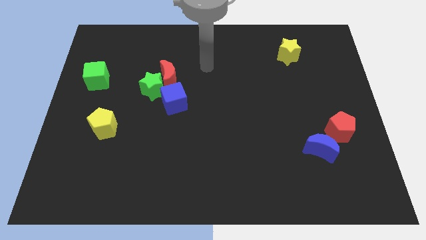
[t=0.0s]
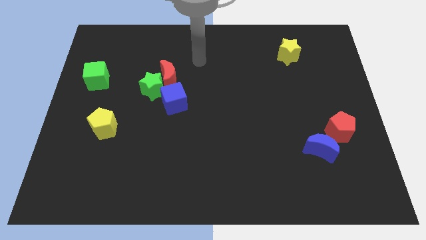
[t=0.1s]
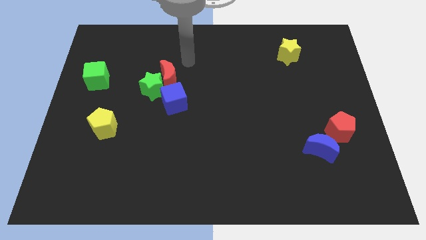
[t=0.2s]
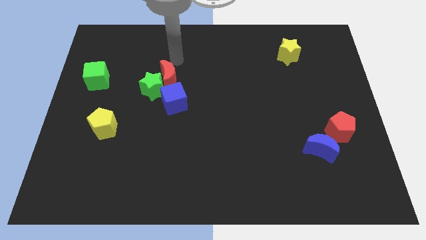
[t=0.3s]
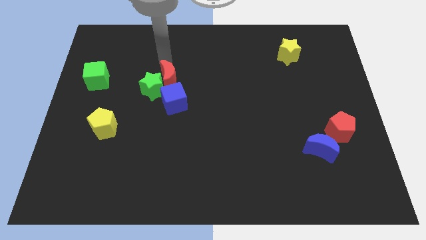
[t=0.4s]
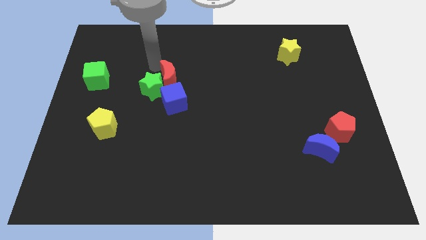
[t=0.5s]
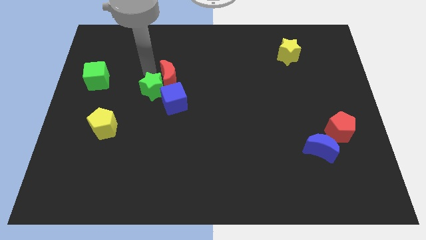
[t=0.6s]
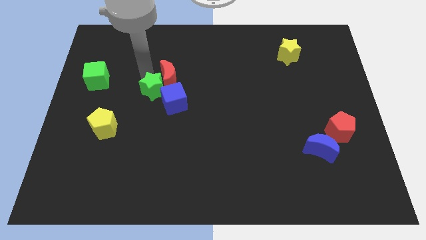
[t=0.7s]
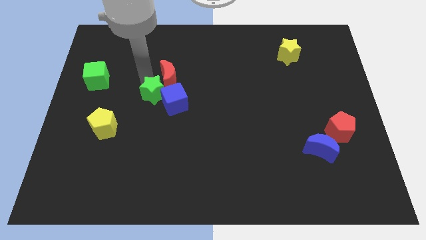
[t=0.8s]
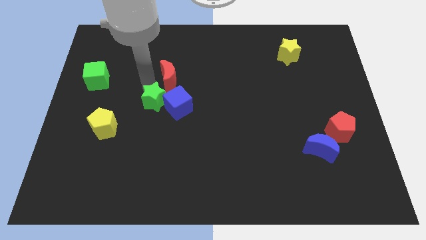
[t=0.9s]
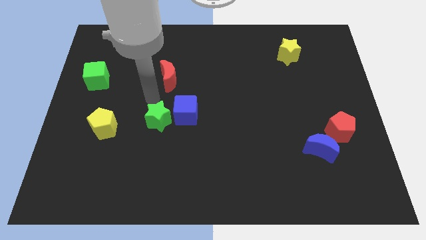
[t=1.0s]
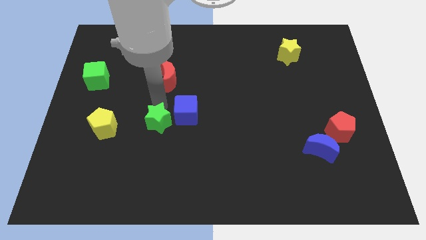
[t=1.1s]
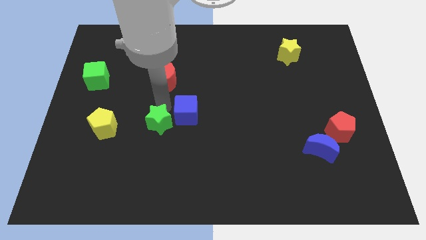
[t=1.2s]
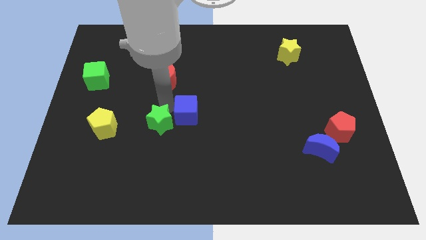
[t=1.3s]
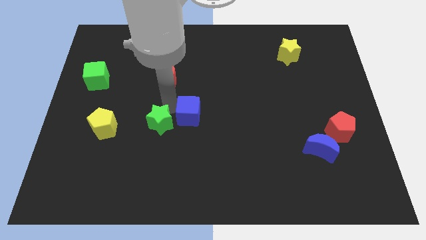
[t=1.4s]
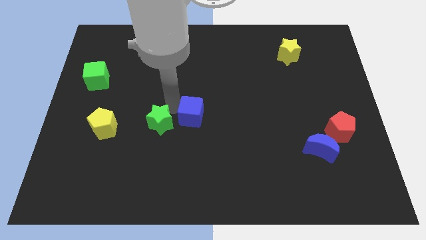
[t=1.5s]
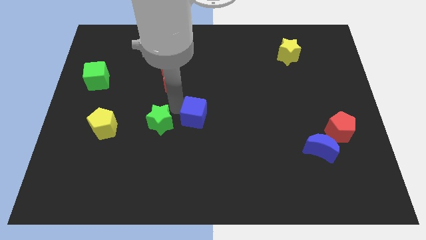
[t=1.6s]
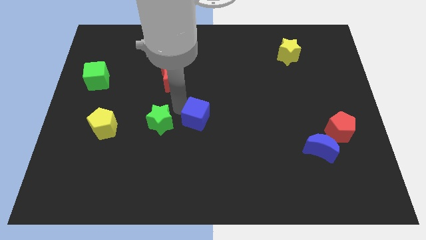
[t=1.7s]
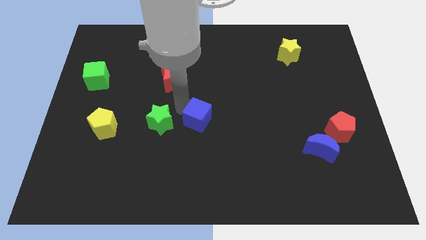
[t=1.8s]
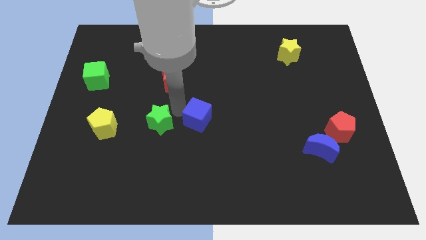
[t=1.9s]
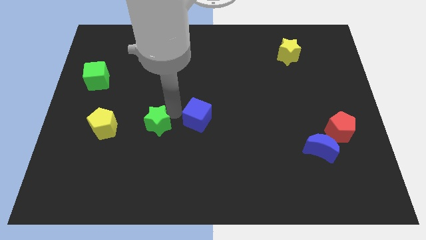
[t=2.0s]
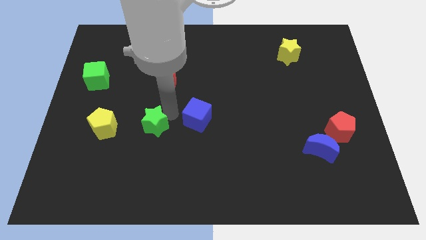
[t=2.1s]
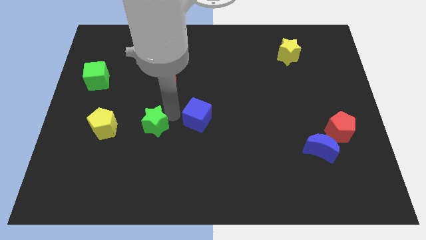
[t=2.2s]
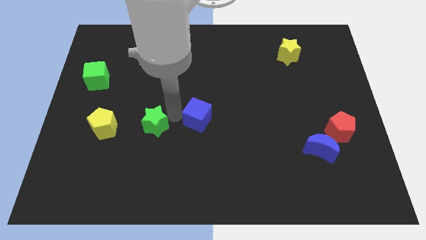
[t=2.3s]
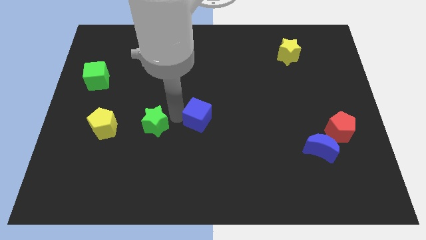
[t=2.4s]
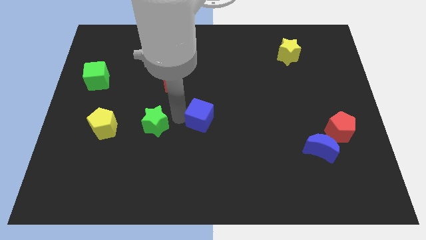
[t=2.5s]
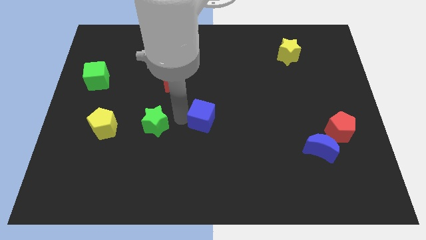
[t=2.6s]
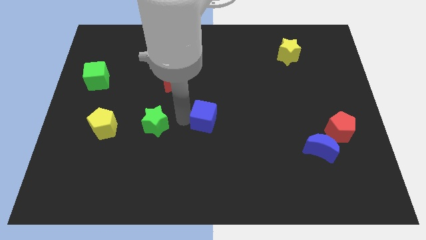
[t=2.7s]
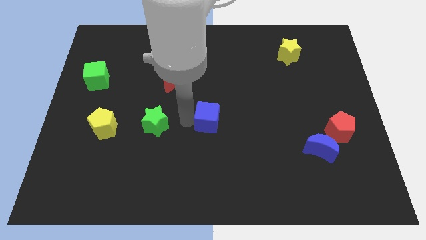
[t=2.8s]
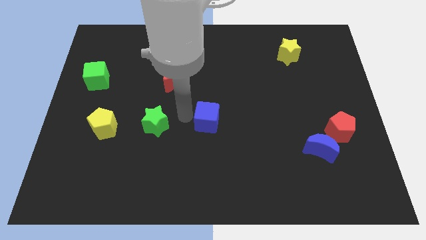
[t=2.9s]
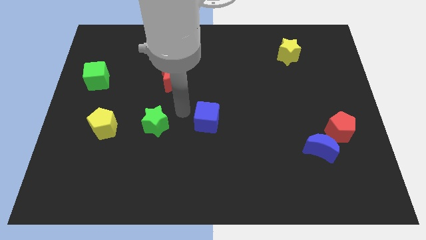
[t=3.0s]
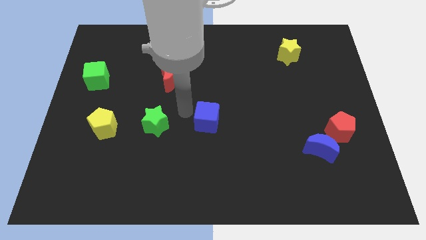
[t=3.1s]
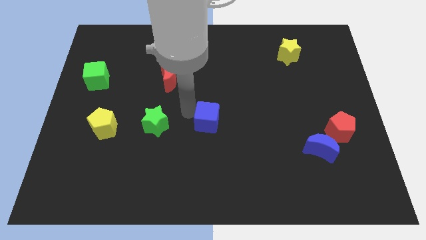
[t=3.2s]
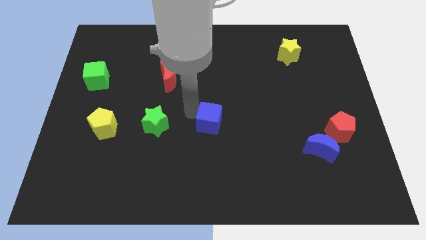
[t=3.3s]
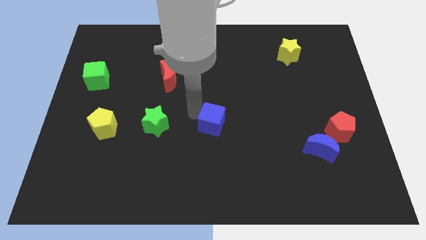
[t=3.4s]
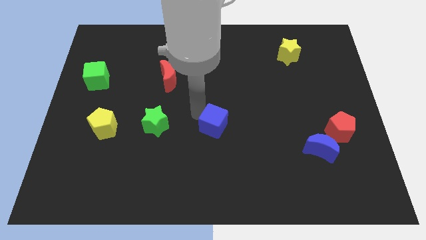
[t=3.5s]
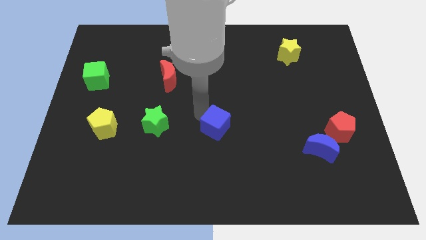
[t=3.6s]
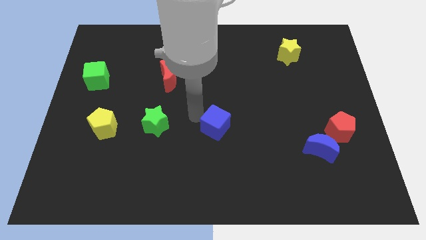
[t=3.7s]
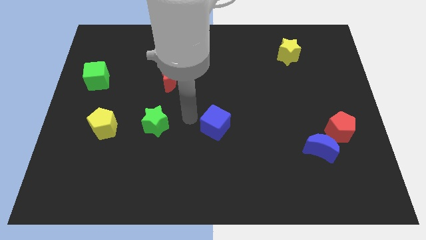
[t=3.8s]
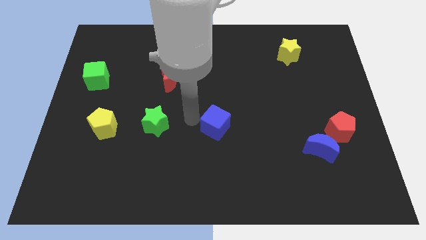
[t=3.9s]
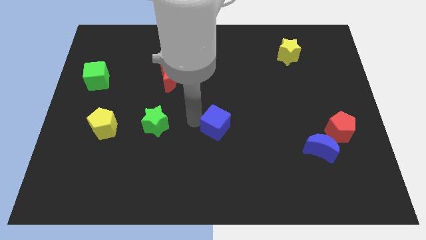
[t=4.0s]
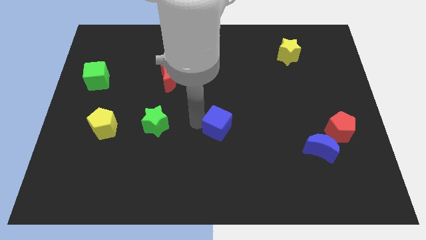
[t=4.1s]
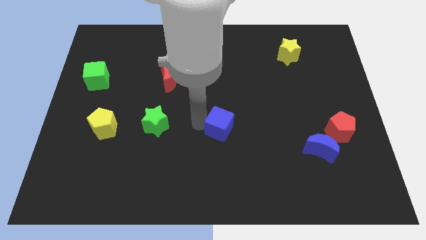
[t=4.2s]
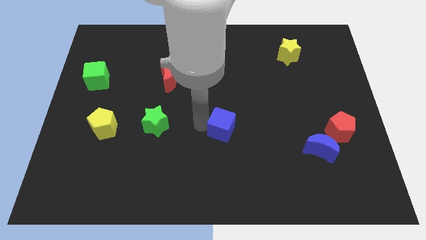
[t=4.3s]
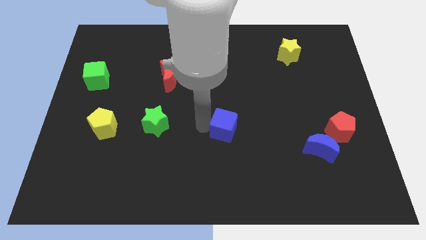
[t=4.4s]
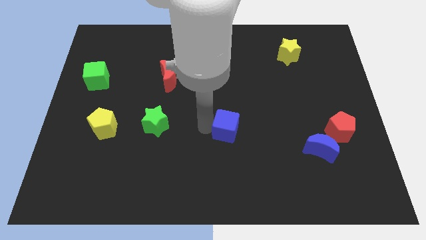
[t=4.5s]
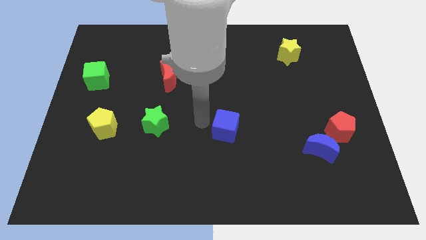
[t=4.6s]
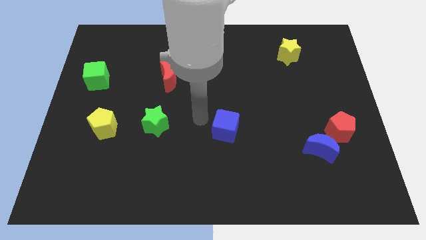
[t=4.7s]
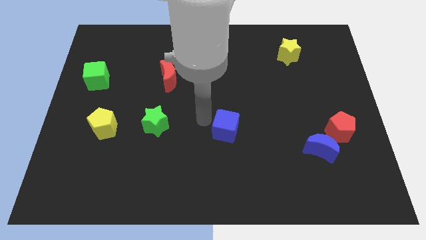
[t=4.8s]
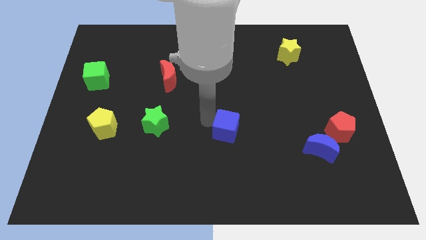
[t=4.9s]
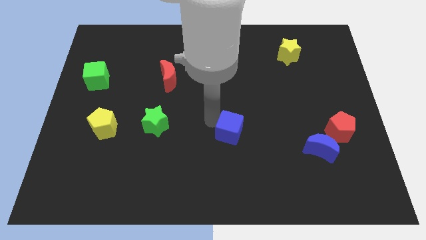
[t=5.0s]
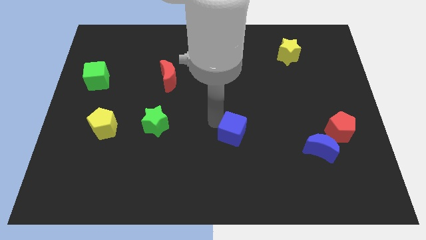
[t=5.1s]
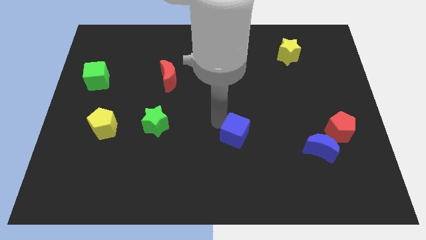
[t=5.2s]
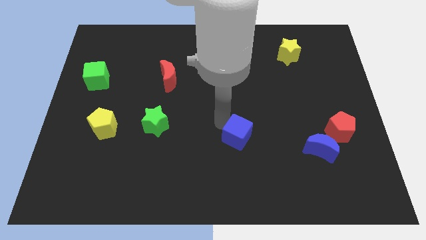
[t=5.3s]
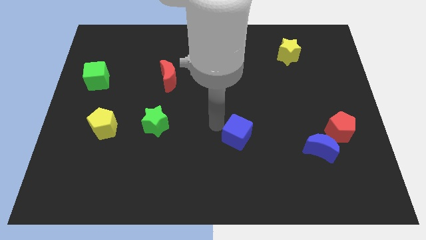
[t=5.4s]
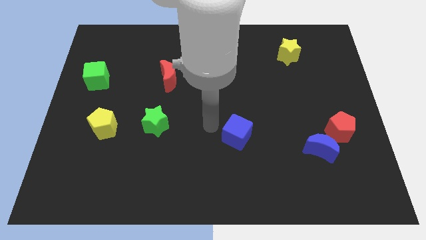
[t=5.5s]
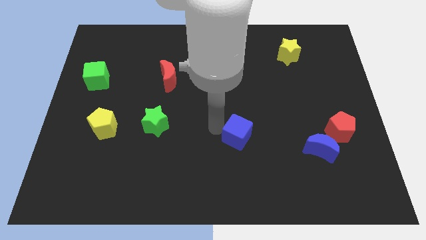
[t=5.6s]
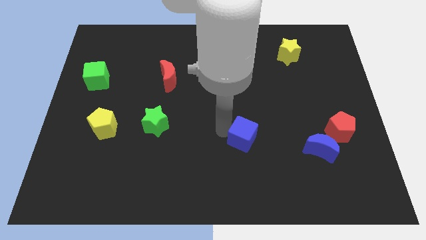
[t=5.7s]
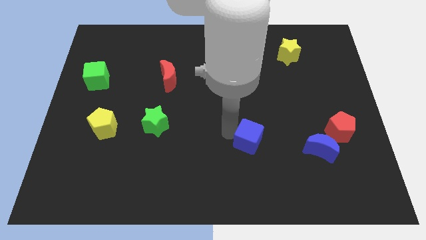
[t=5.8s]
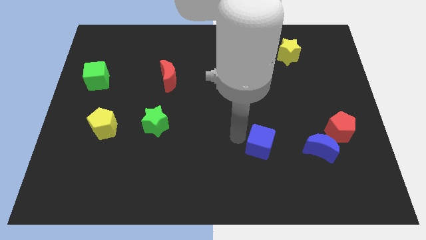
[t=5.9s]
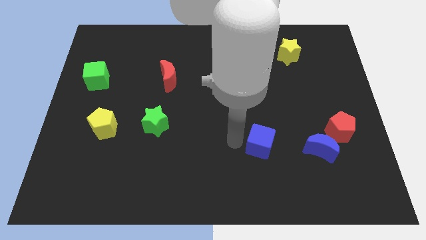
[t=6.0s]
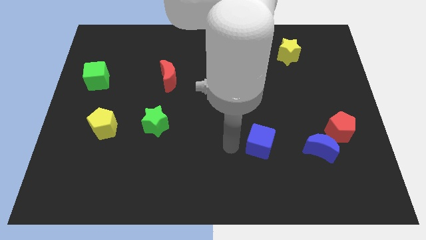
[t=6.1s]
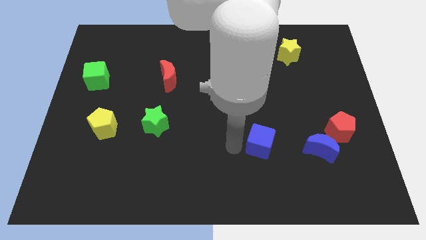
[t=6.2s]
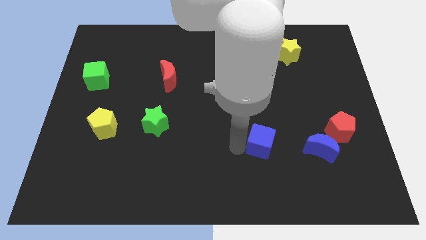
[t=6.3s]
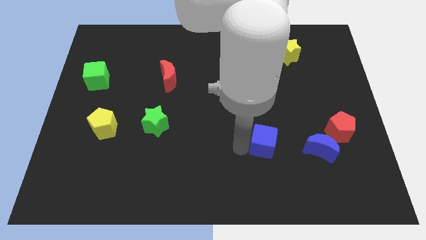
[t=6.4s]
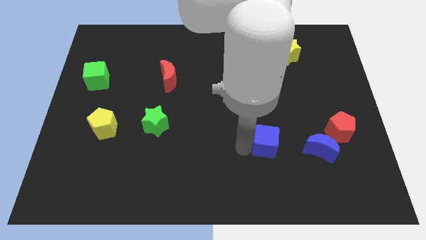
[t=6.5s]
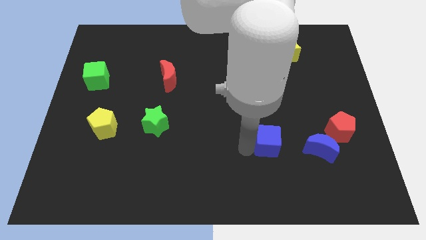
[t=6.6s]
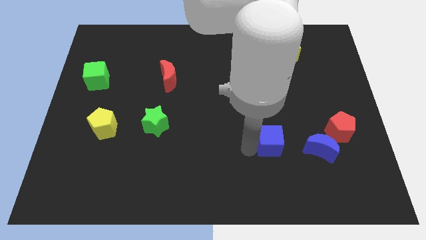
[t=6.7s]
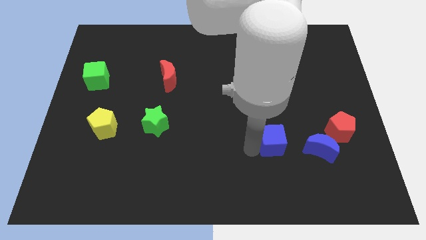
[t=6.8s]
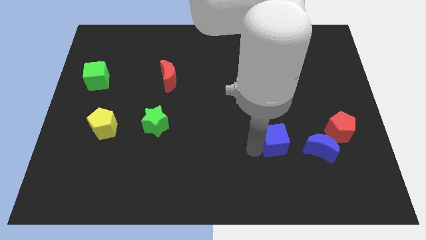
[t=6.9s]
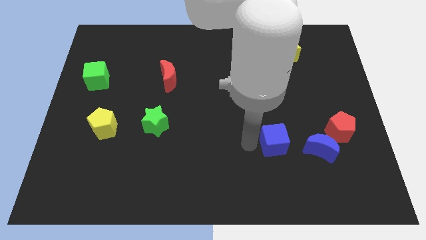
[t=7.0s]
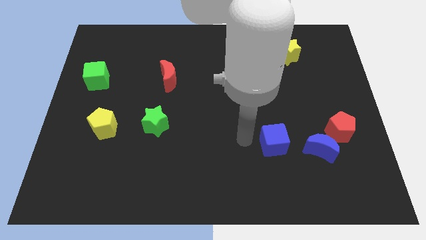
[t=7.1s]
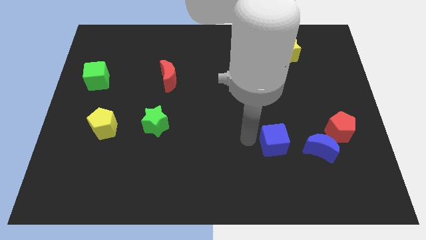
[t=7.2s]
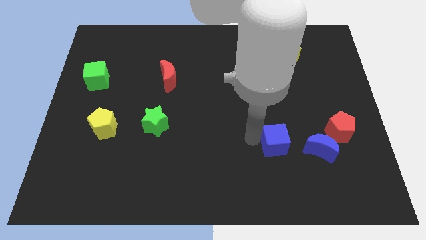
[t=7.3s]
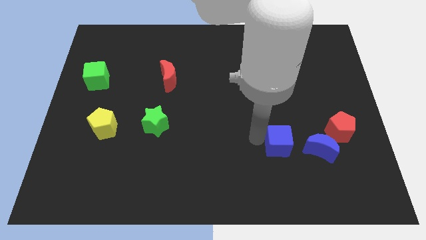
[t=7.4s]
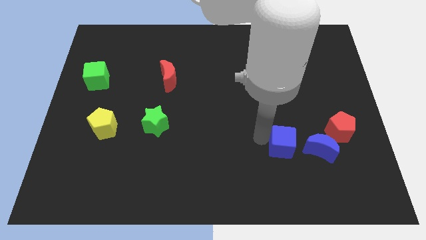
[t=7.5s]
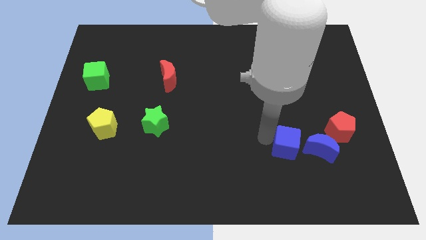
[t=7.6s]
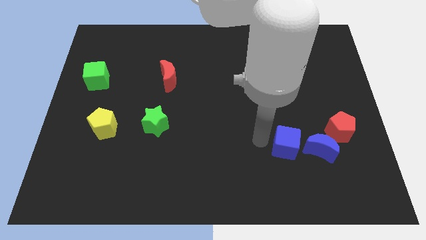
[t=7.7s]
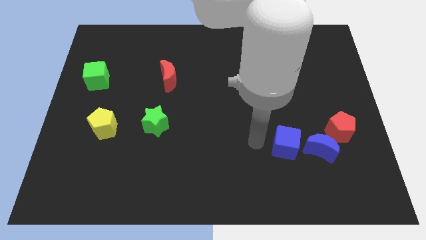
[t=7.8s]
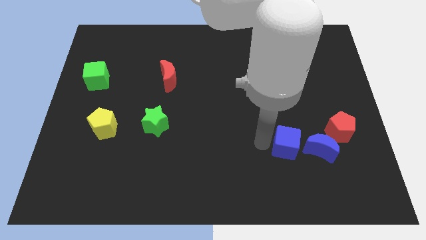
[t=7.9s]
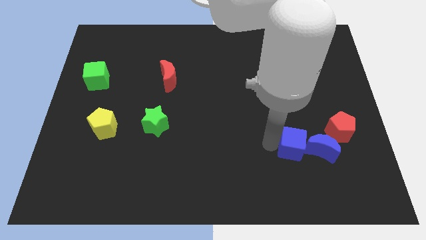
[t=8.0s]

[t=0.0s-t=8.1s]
move the blue cube towards the blue moon
